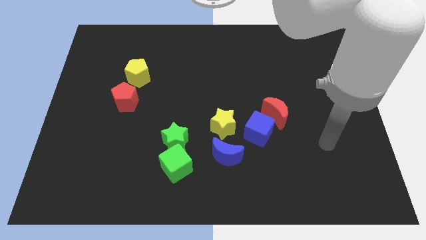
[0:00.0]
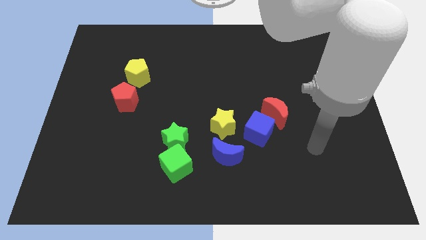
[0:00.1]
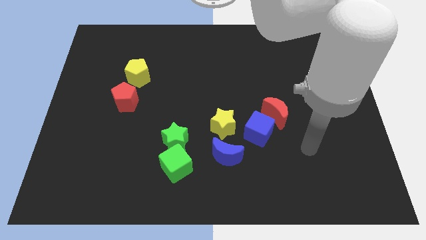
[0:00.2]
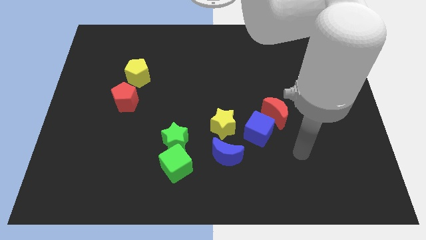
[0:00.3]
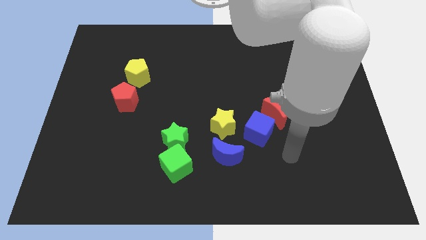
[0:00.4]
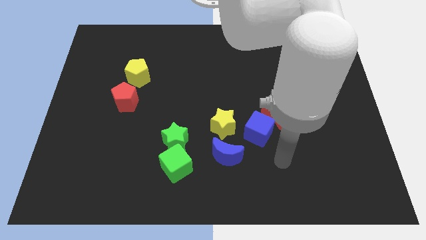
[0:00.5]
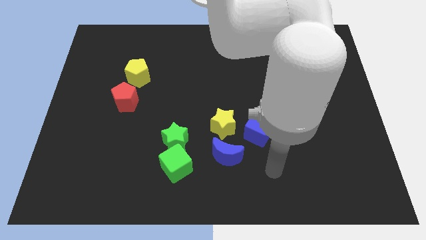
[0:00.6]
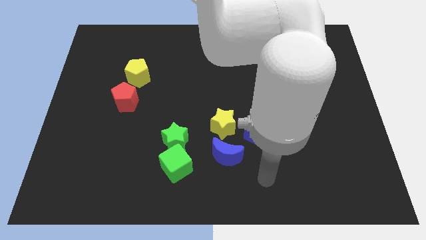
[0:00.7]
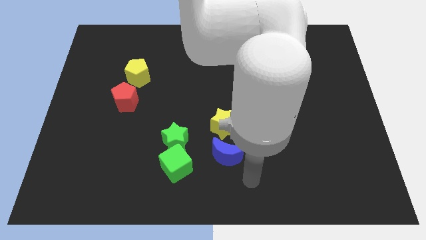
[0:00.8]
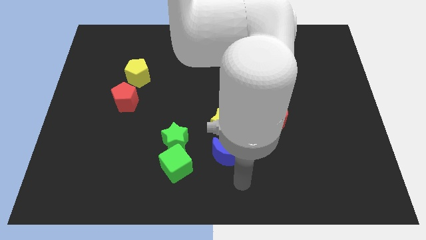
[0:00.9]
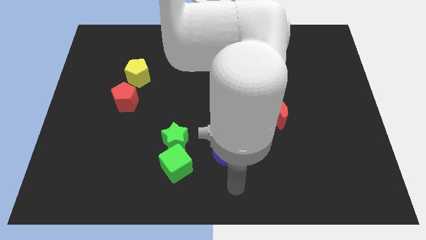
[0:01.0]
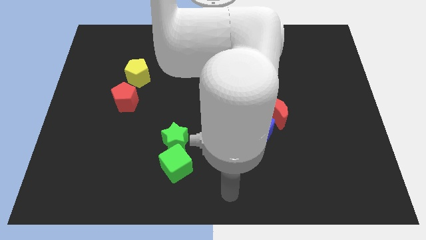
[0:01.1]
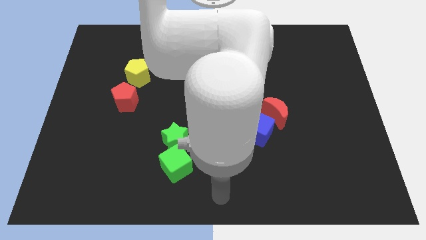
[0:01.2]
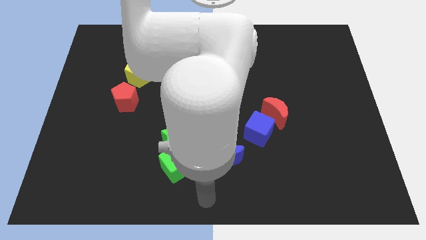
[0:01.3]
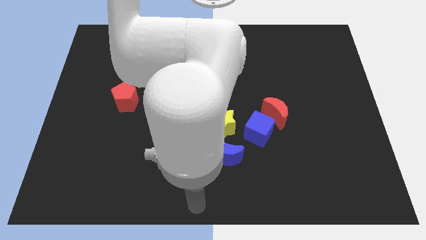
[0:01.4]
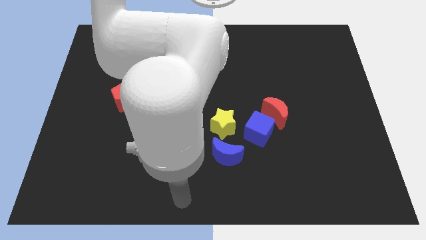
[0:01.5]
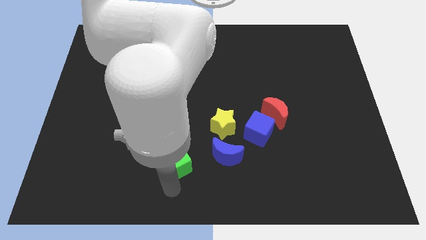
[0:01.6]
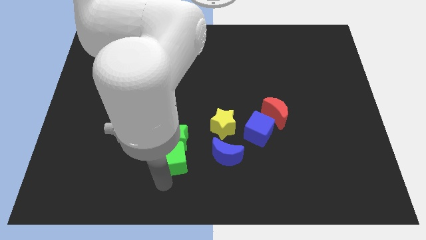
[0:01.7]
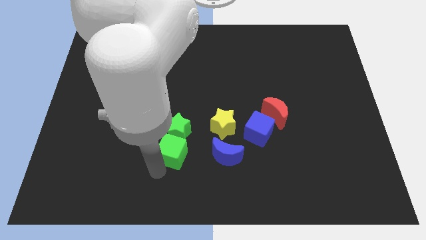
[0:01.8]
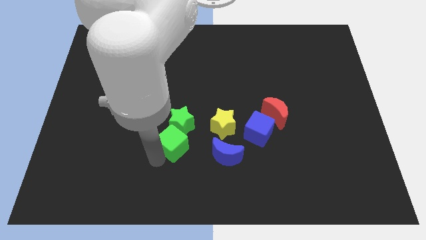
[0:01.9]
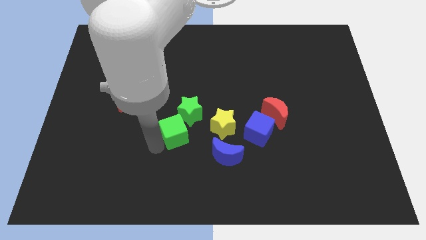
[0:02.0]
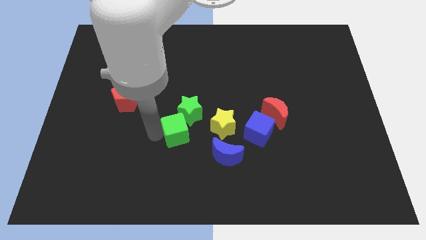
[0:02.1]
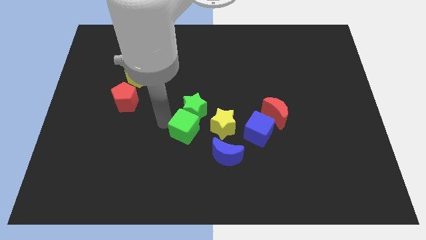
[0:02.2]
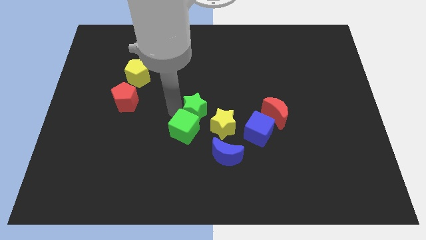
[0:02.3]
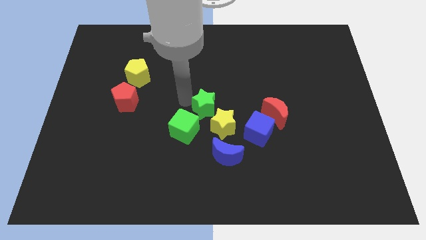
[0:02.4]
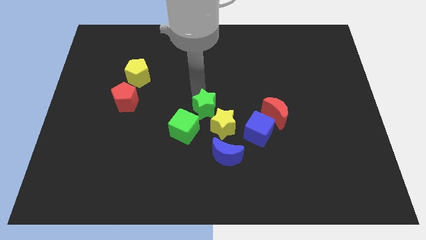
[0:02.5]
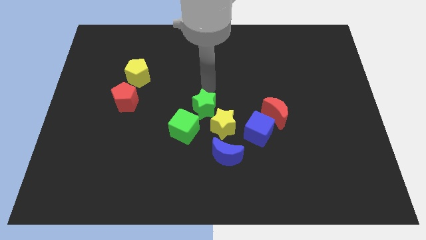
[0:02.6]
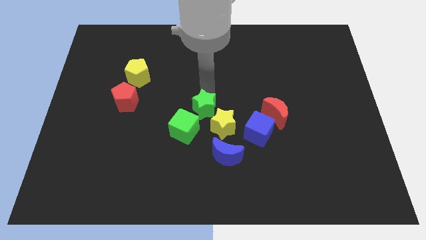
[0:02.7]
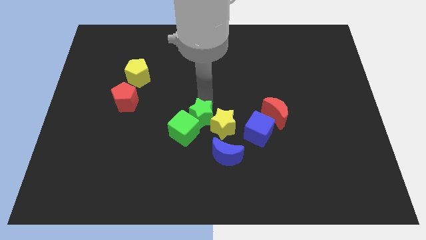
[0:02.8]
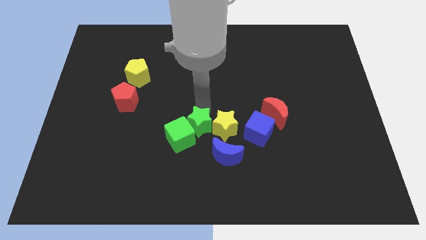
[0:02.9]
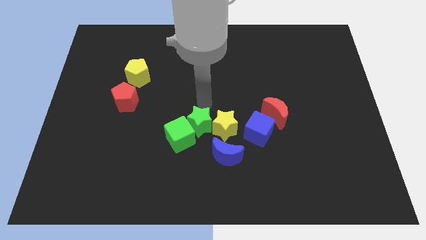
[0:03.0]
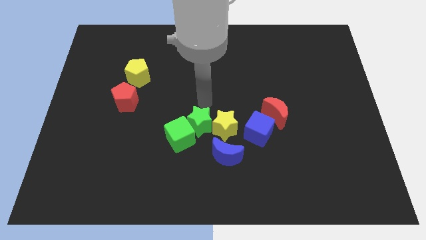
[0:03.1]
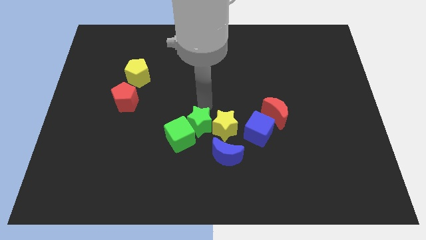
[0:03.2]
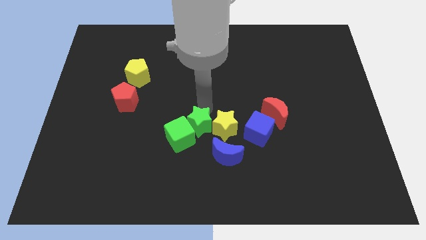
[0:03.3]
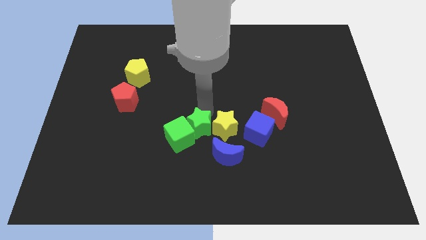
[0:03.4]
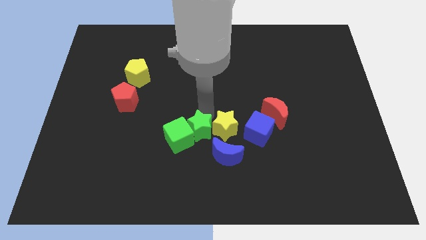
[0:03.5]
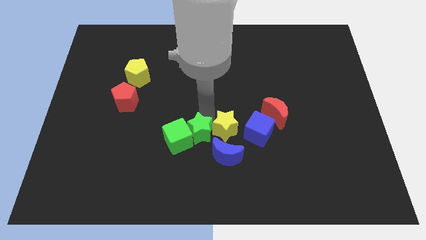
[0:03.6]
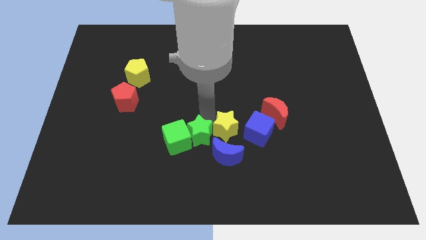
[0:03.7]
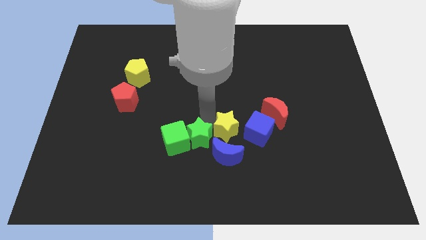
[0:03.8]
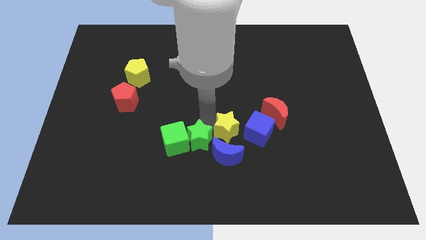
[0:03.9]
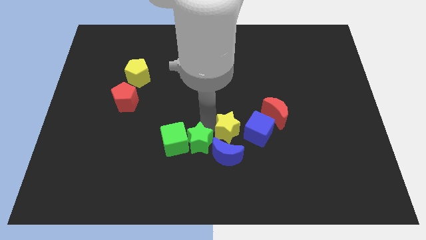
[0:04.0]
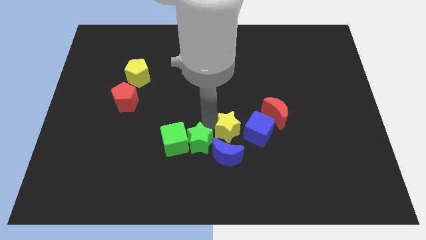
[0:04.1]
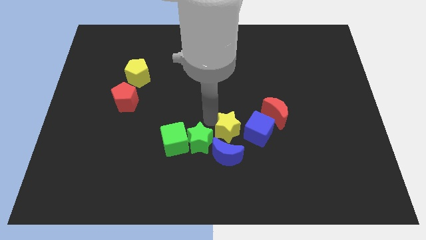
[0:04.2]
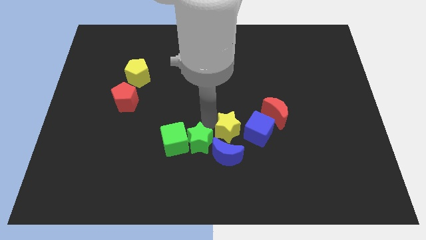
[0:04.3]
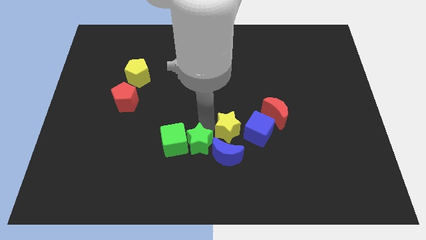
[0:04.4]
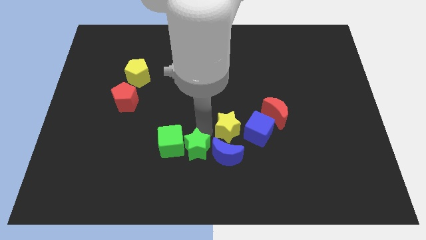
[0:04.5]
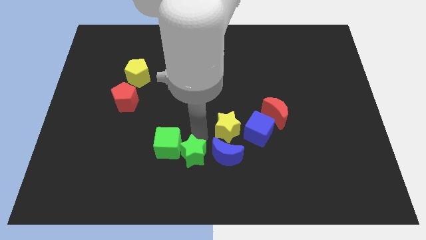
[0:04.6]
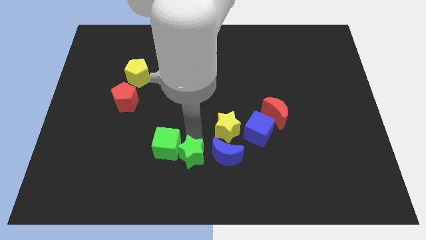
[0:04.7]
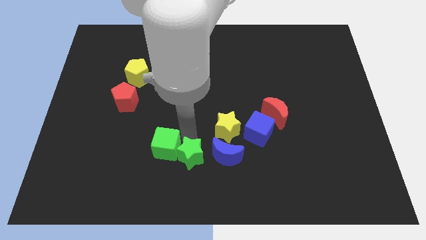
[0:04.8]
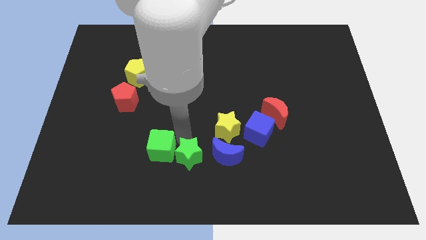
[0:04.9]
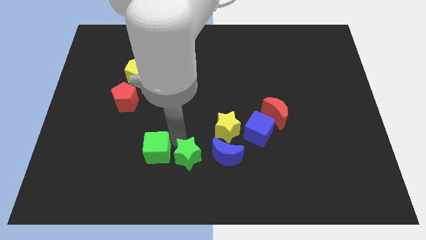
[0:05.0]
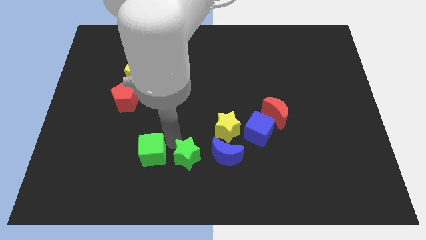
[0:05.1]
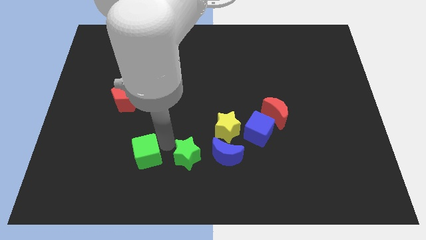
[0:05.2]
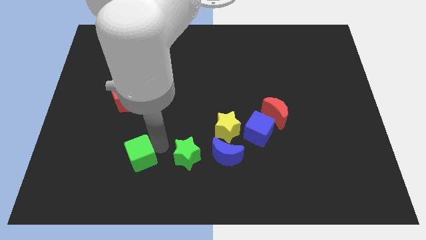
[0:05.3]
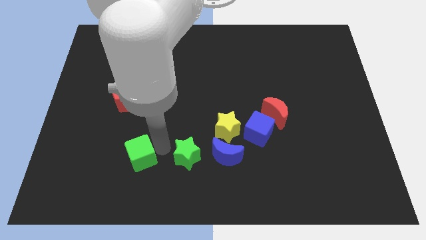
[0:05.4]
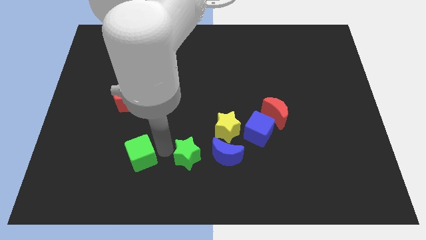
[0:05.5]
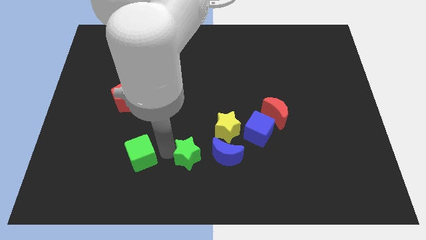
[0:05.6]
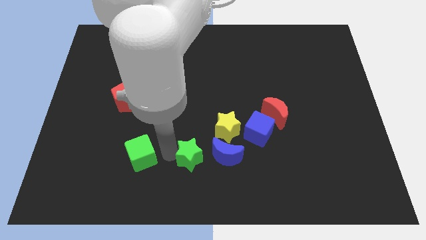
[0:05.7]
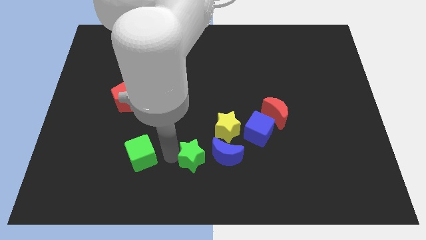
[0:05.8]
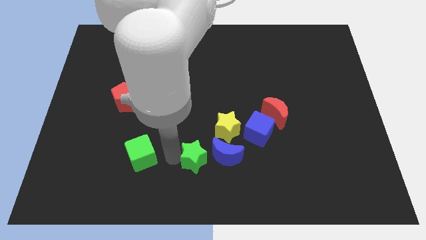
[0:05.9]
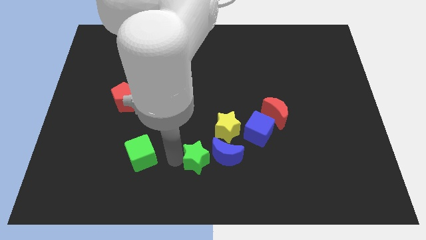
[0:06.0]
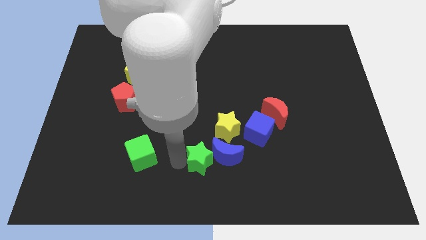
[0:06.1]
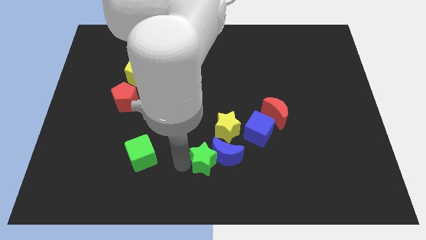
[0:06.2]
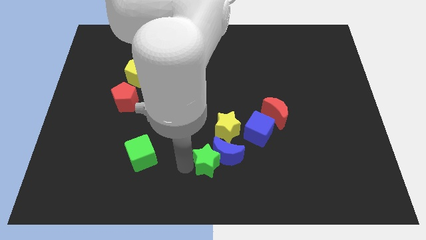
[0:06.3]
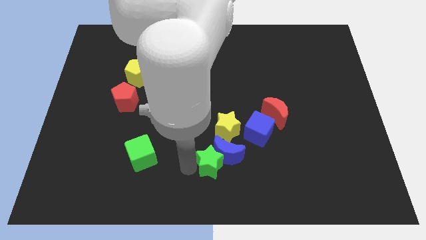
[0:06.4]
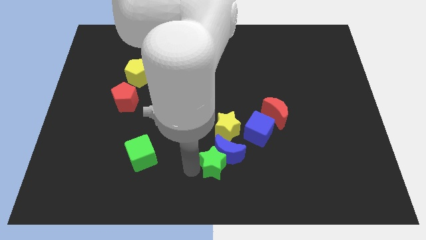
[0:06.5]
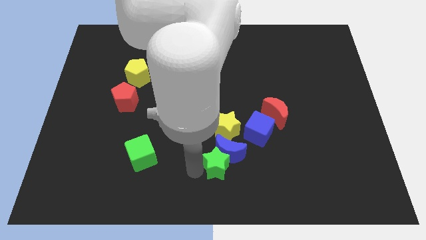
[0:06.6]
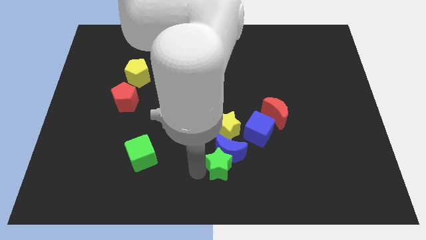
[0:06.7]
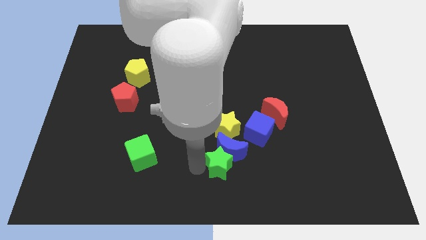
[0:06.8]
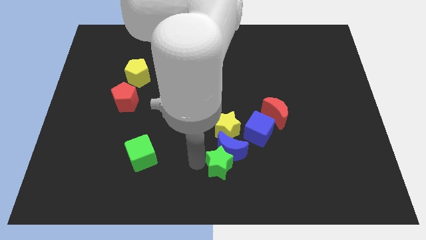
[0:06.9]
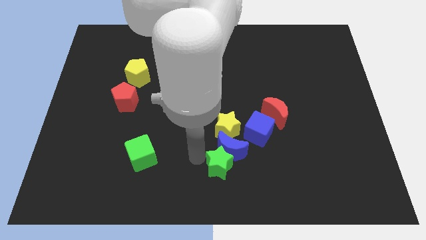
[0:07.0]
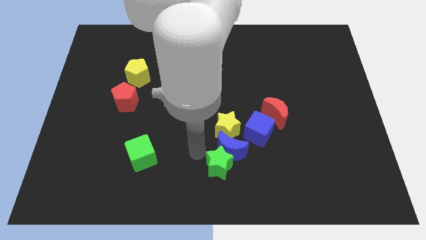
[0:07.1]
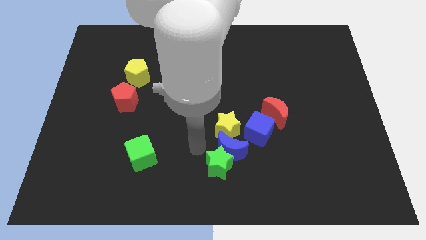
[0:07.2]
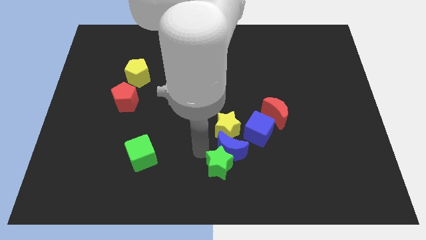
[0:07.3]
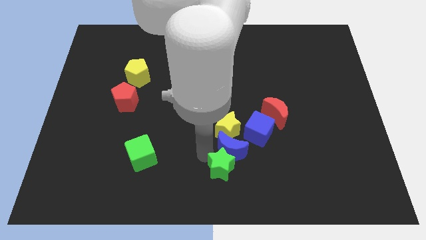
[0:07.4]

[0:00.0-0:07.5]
push the green star to the bottom right side of the blue moon
